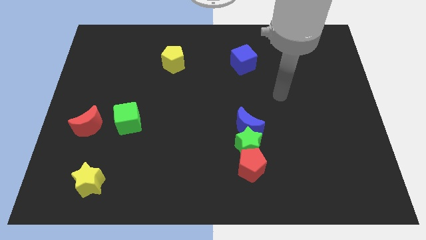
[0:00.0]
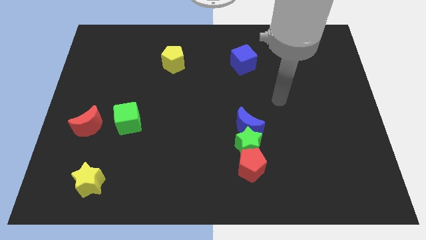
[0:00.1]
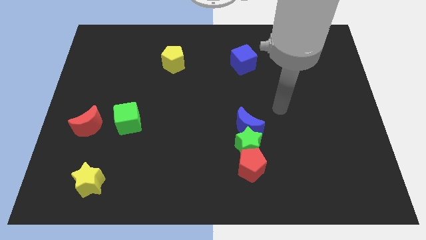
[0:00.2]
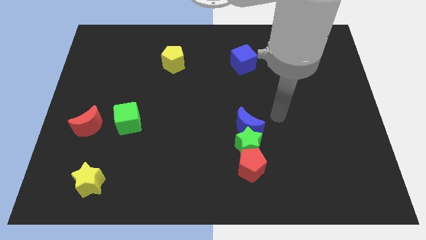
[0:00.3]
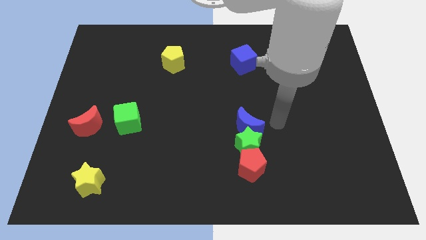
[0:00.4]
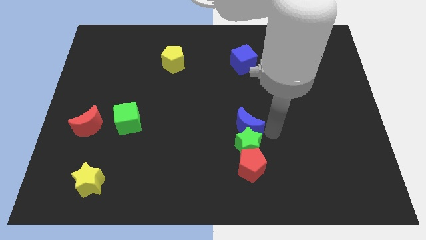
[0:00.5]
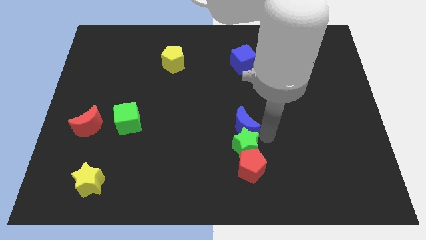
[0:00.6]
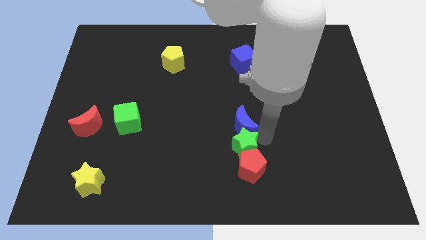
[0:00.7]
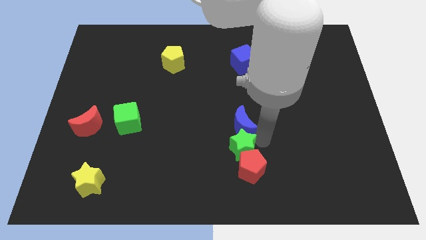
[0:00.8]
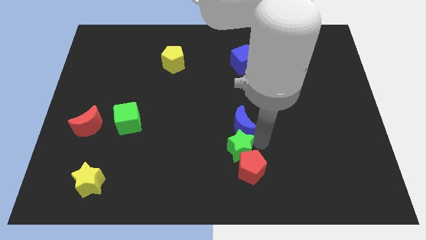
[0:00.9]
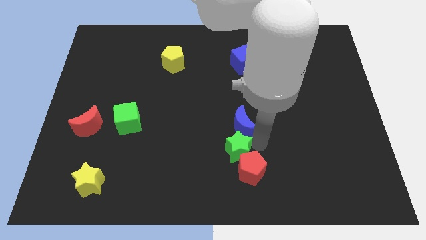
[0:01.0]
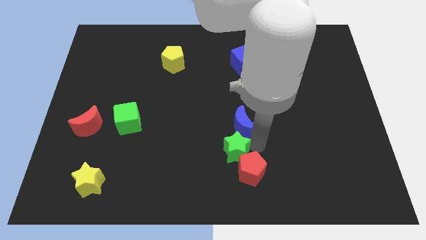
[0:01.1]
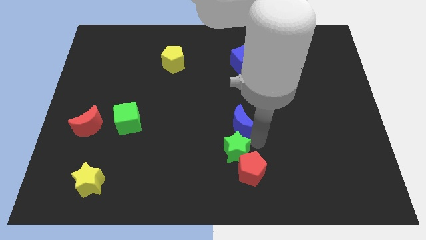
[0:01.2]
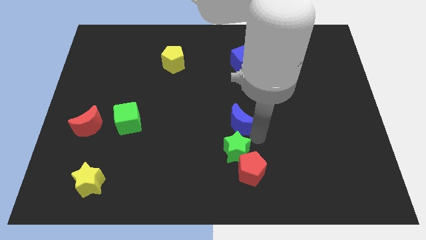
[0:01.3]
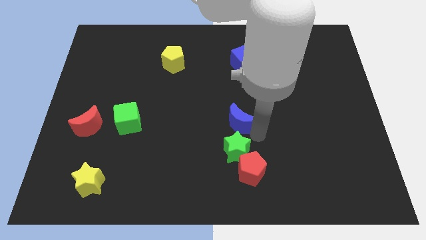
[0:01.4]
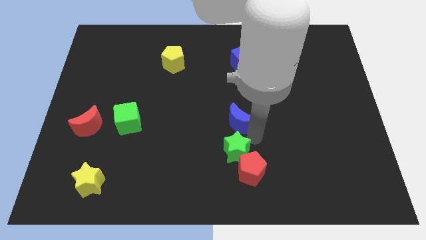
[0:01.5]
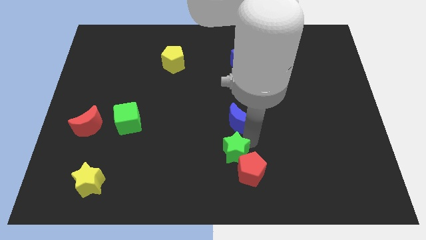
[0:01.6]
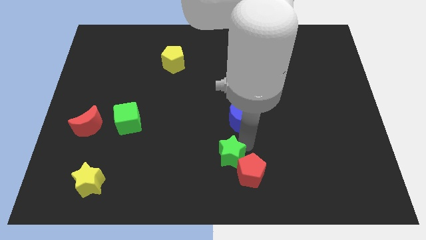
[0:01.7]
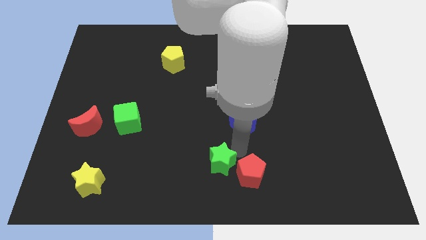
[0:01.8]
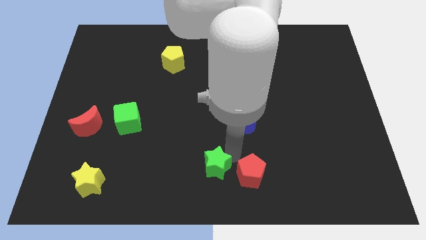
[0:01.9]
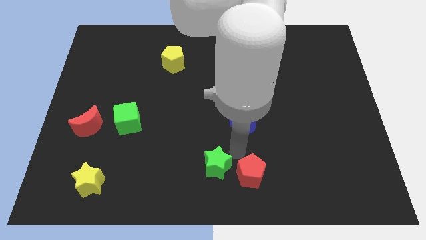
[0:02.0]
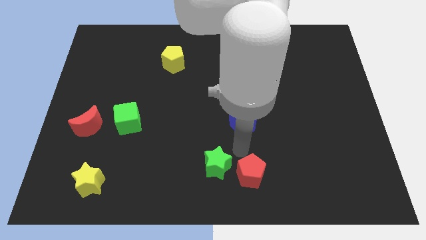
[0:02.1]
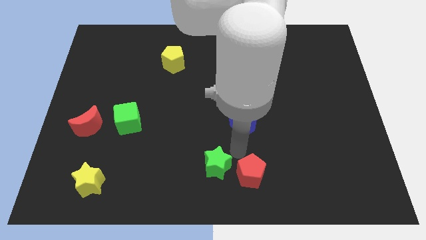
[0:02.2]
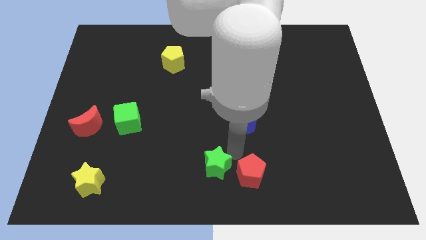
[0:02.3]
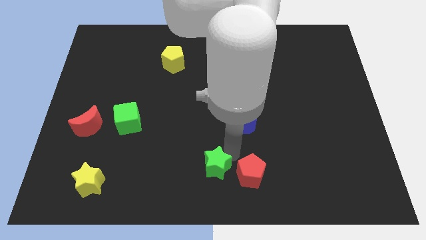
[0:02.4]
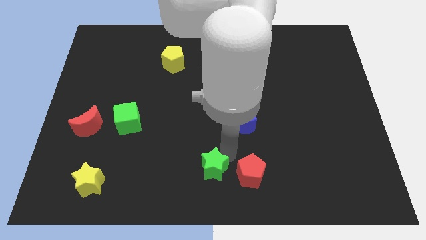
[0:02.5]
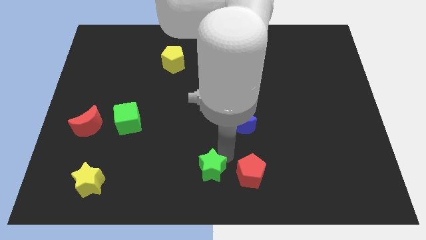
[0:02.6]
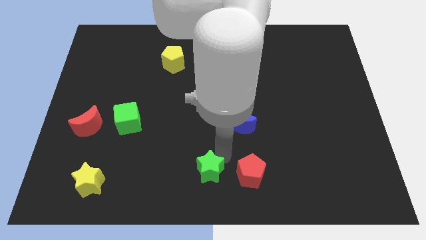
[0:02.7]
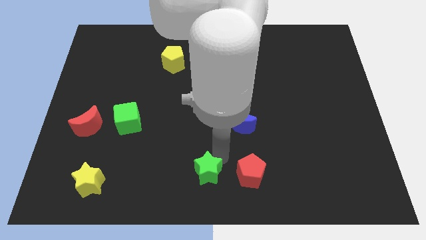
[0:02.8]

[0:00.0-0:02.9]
separate the green star from the red pentagon and blue moon

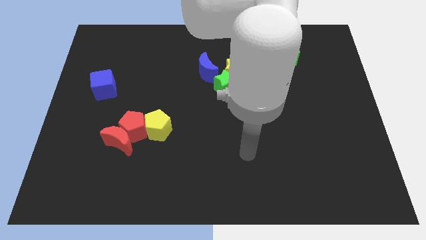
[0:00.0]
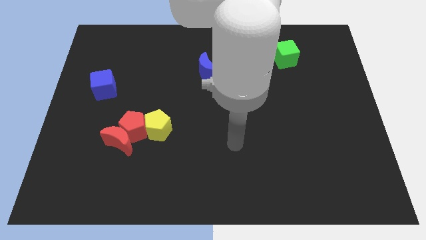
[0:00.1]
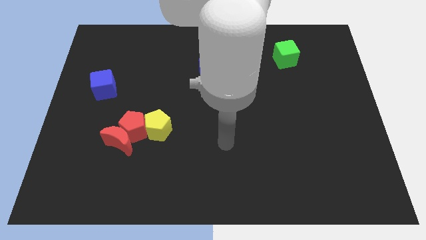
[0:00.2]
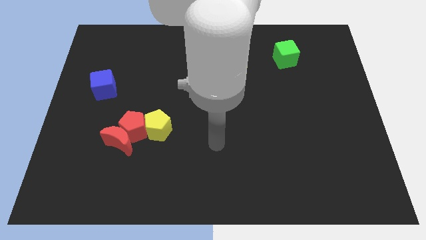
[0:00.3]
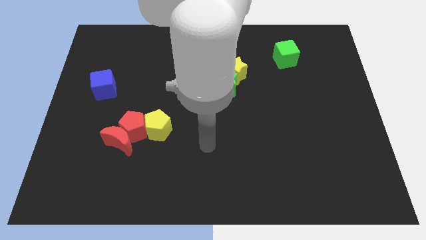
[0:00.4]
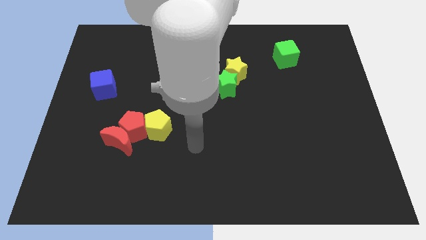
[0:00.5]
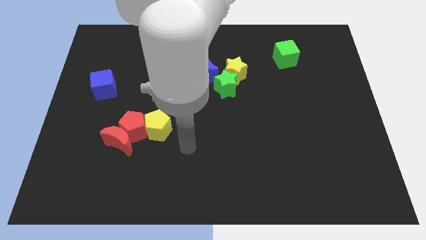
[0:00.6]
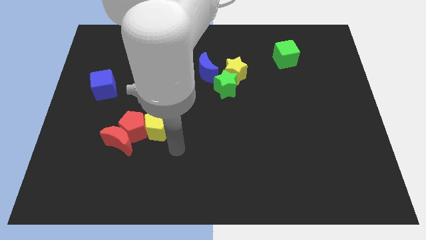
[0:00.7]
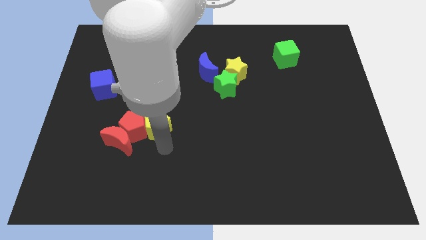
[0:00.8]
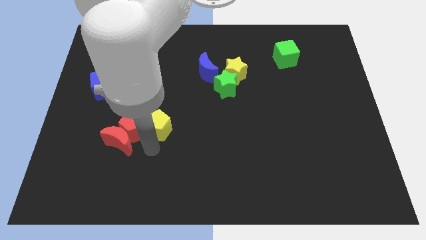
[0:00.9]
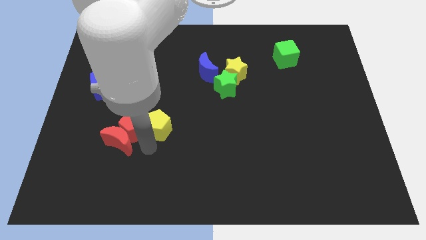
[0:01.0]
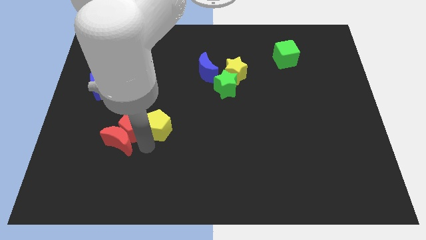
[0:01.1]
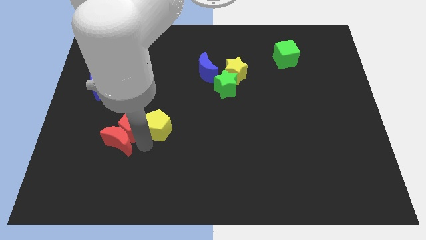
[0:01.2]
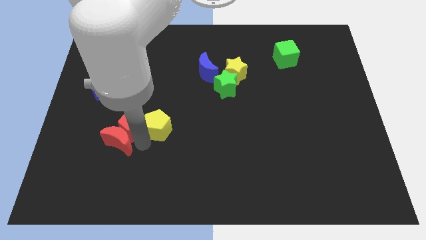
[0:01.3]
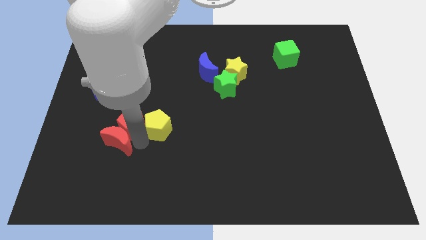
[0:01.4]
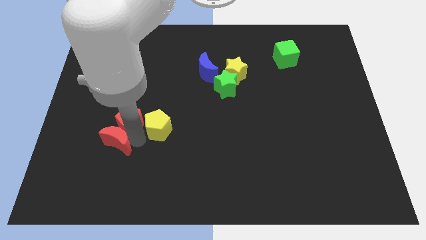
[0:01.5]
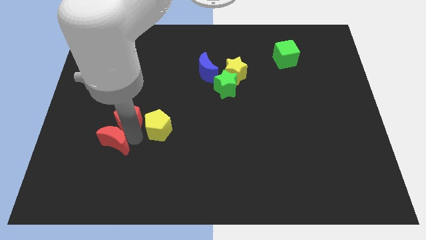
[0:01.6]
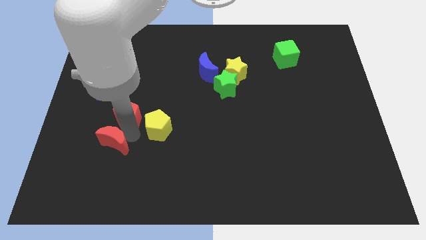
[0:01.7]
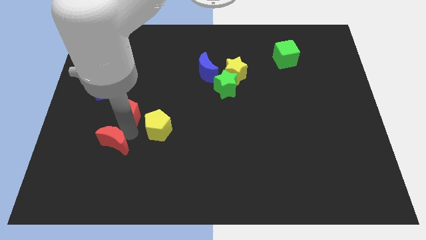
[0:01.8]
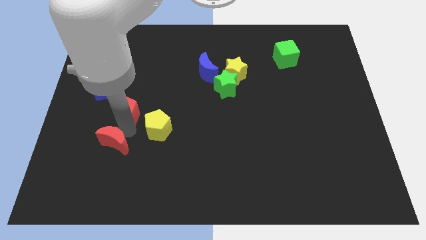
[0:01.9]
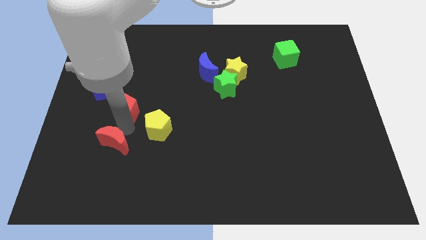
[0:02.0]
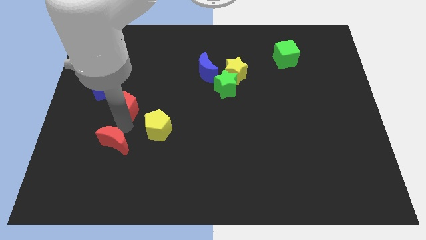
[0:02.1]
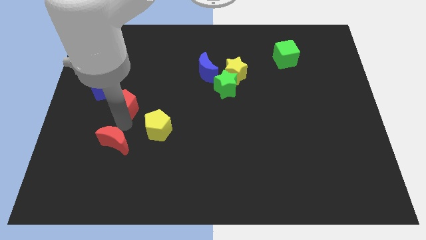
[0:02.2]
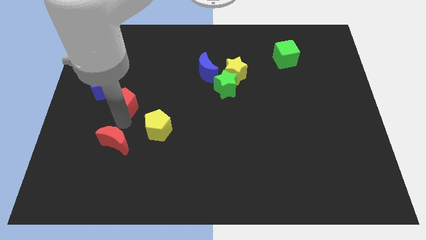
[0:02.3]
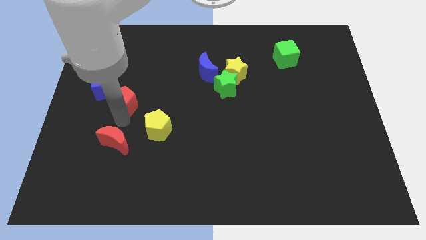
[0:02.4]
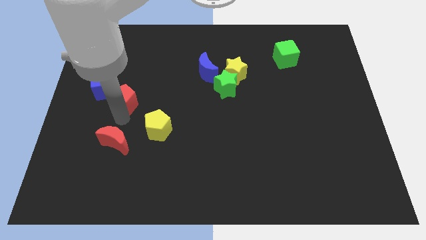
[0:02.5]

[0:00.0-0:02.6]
pull the red pentagon apart from the red moon and yellow pentagon

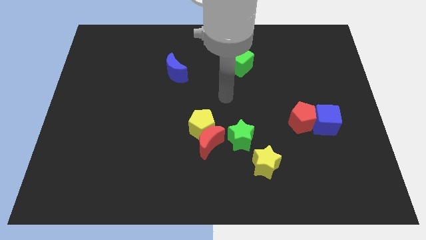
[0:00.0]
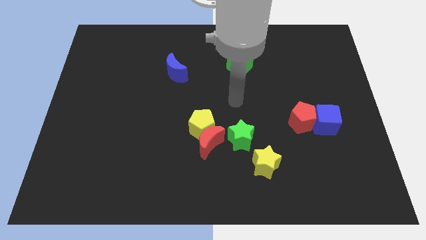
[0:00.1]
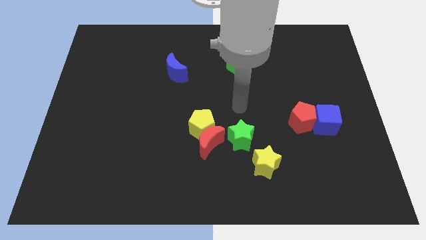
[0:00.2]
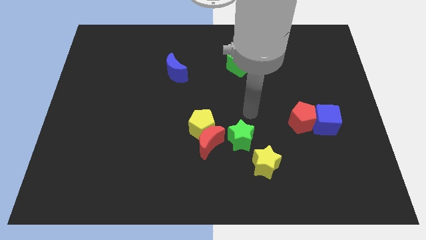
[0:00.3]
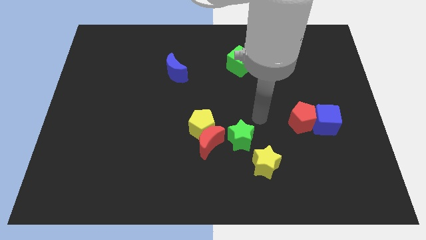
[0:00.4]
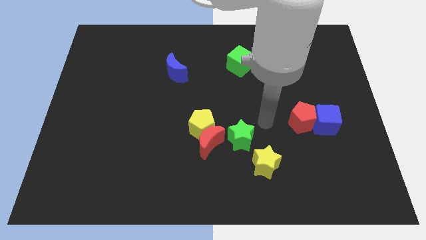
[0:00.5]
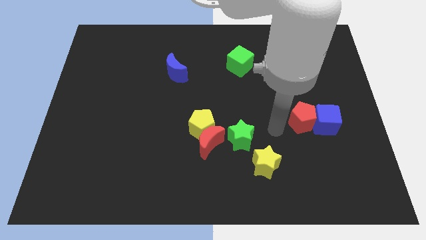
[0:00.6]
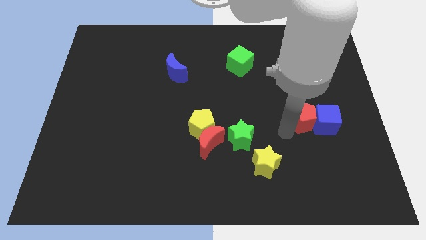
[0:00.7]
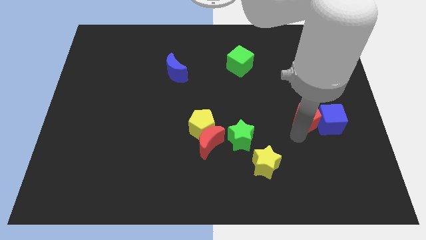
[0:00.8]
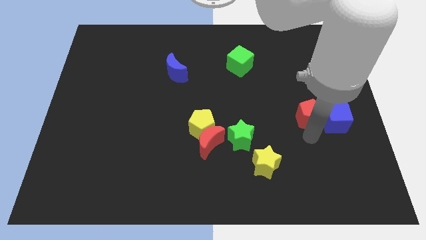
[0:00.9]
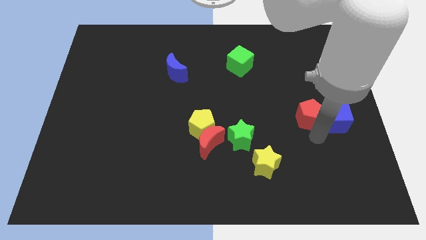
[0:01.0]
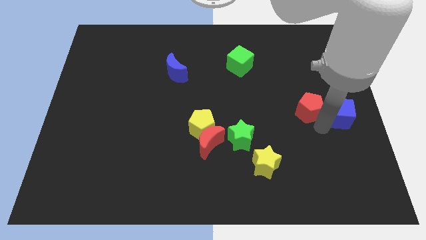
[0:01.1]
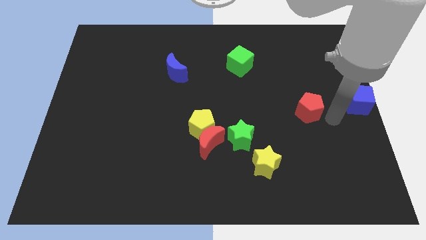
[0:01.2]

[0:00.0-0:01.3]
pull the red pentagon apart from the blue cube

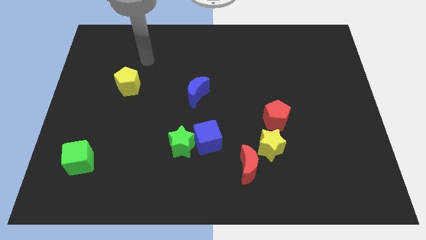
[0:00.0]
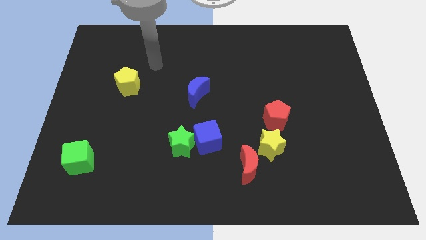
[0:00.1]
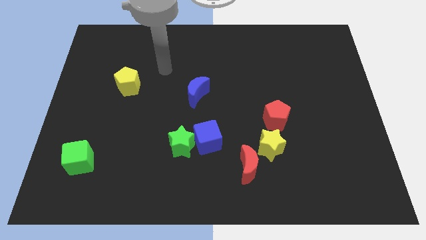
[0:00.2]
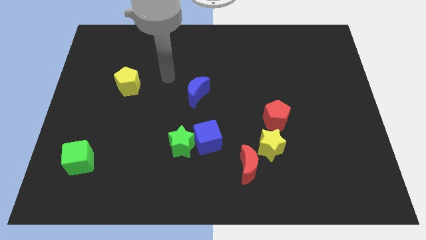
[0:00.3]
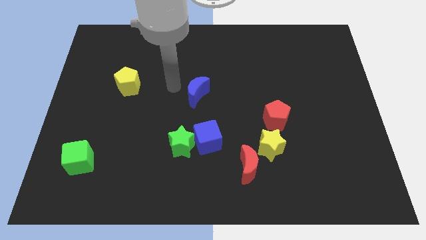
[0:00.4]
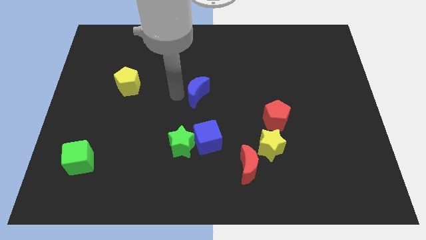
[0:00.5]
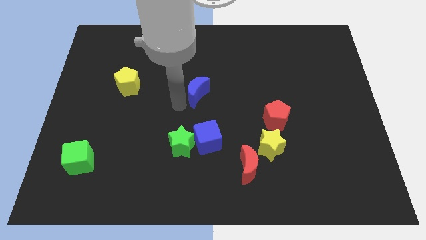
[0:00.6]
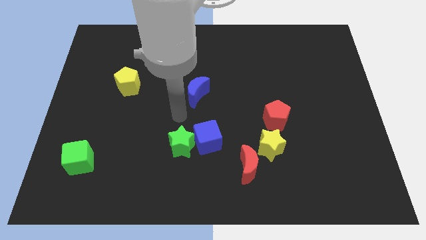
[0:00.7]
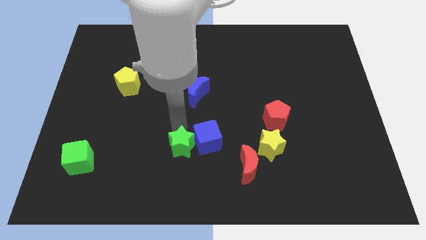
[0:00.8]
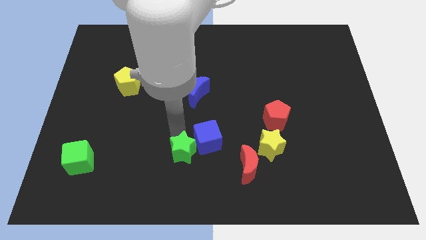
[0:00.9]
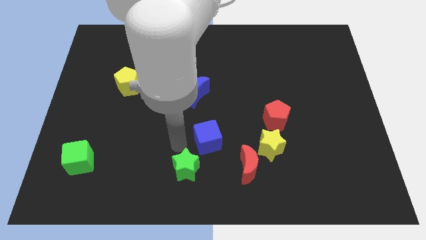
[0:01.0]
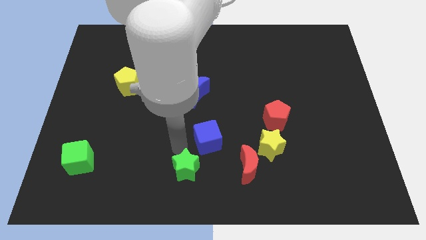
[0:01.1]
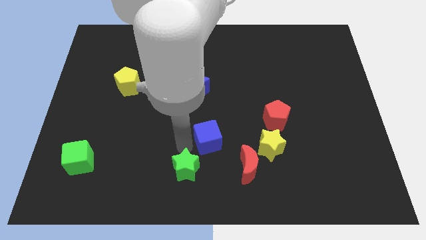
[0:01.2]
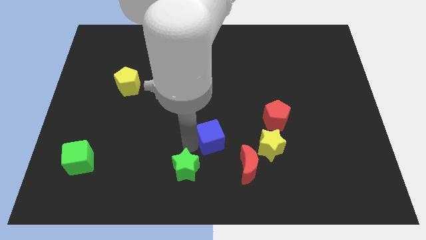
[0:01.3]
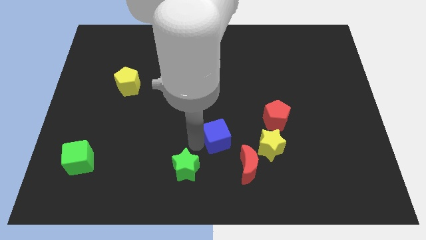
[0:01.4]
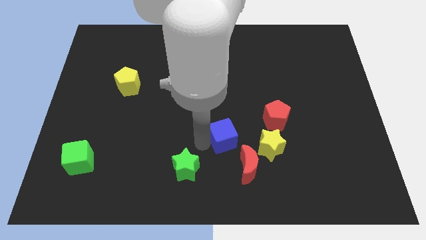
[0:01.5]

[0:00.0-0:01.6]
separate the blue cube from the green star

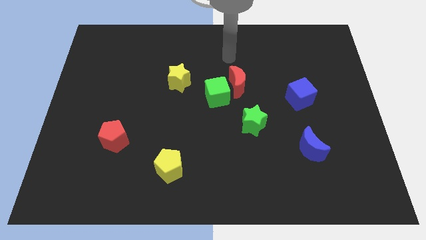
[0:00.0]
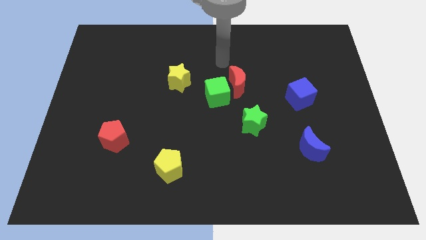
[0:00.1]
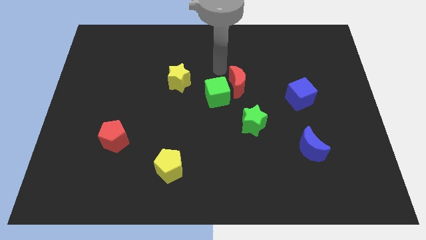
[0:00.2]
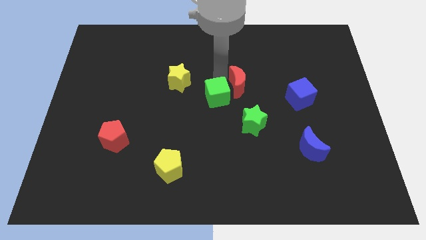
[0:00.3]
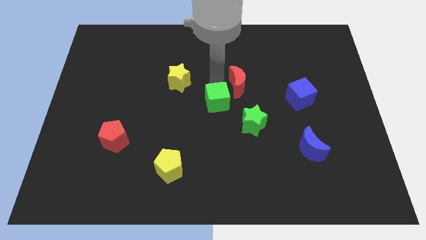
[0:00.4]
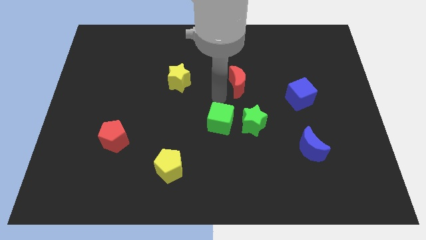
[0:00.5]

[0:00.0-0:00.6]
move the red moon away from the green cube

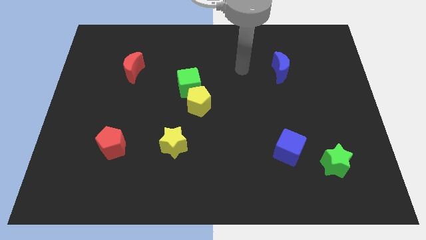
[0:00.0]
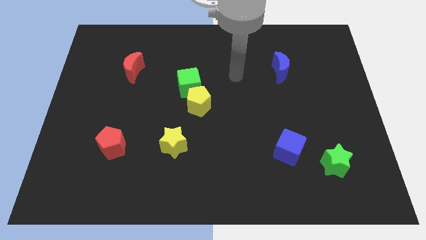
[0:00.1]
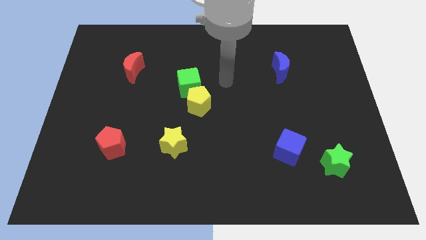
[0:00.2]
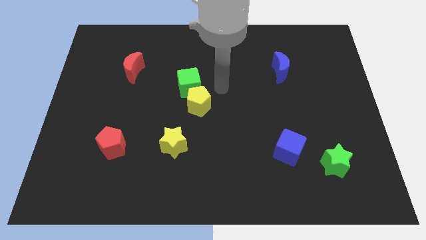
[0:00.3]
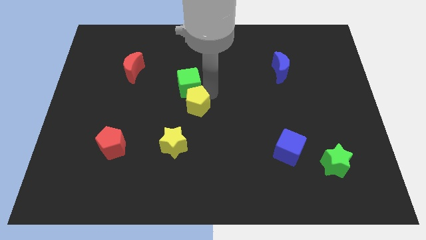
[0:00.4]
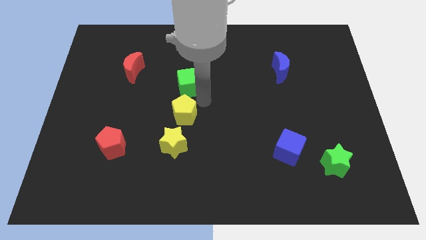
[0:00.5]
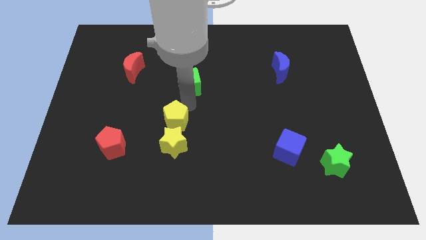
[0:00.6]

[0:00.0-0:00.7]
pull the green cube apart from the yellow pentagon
